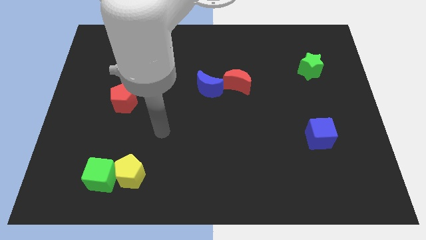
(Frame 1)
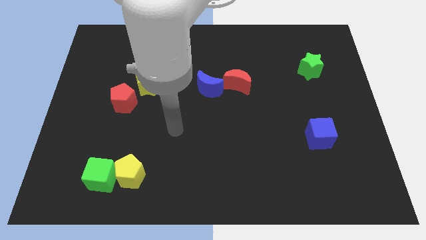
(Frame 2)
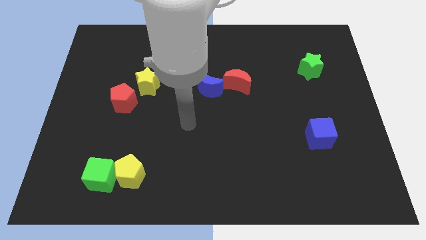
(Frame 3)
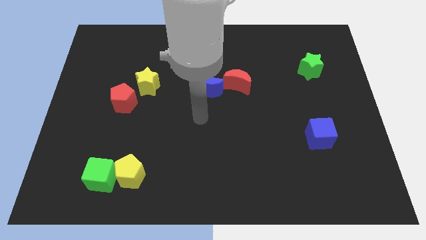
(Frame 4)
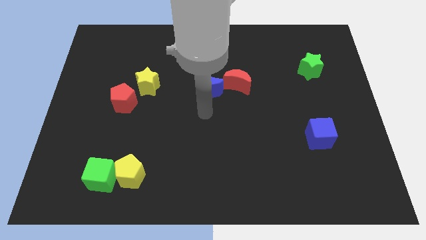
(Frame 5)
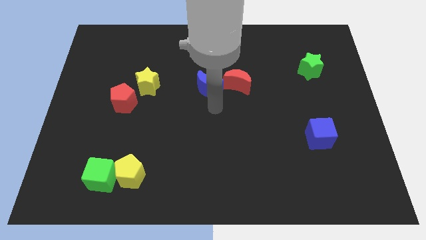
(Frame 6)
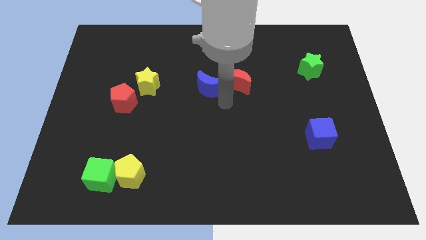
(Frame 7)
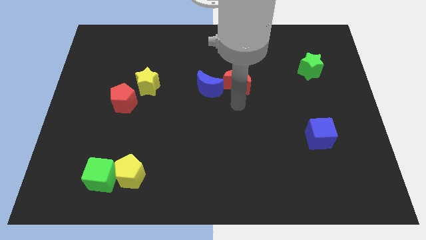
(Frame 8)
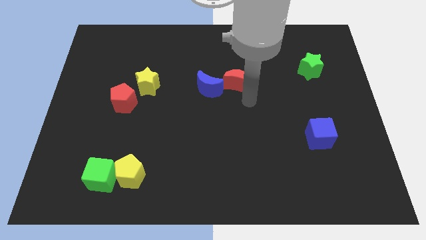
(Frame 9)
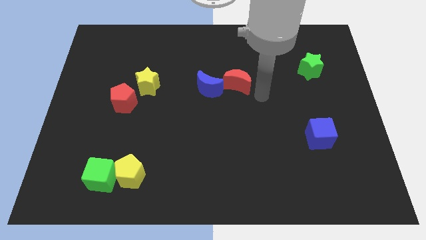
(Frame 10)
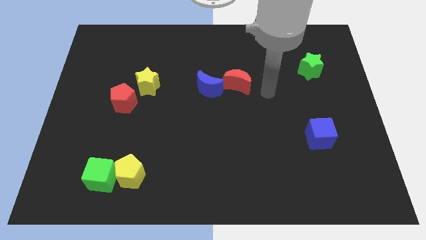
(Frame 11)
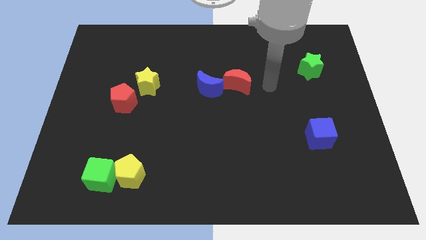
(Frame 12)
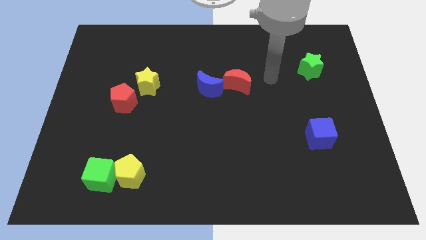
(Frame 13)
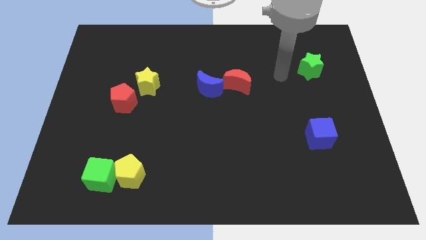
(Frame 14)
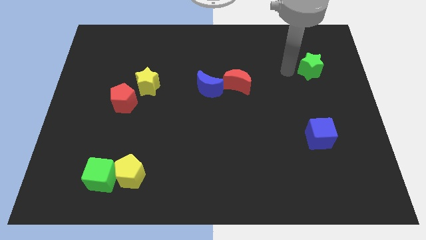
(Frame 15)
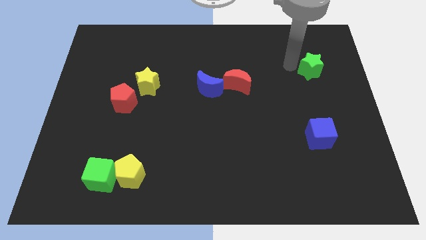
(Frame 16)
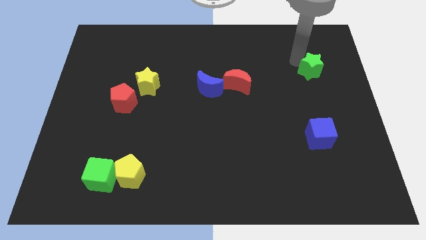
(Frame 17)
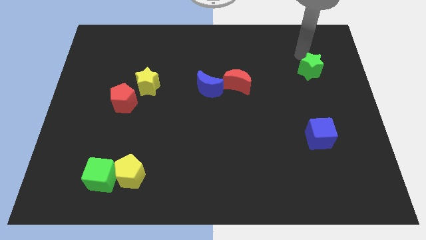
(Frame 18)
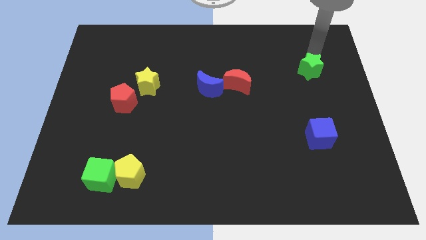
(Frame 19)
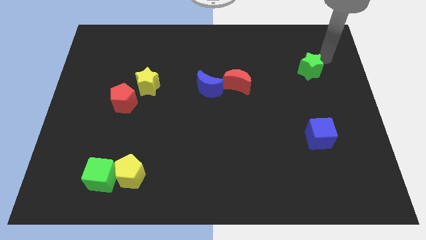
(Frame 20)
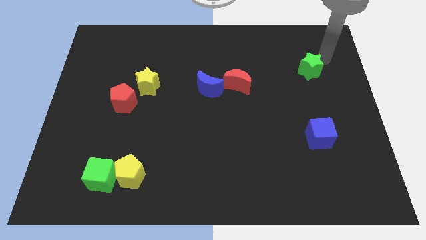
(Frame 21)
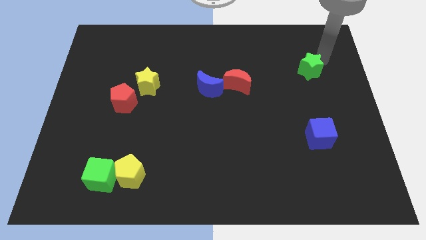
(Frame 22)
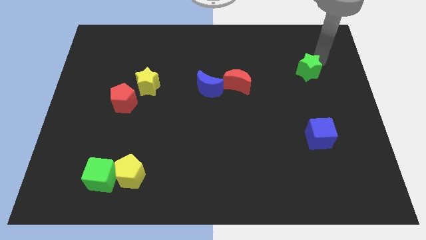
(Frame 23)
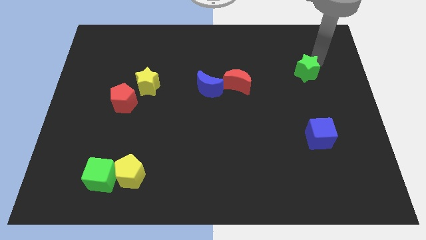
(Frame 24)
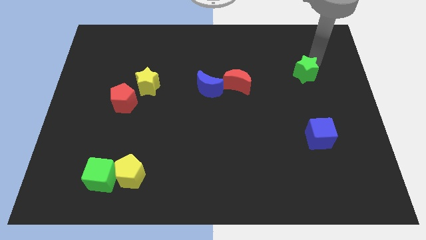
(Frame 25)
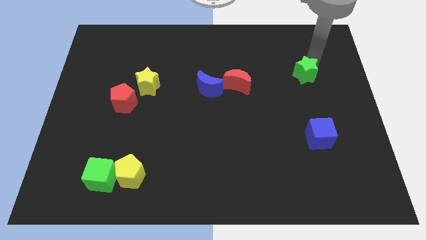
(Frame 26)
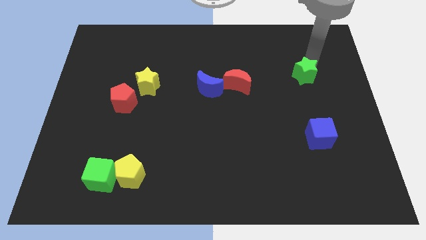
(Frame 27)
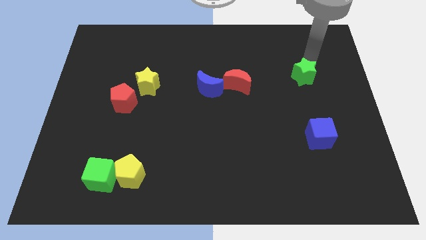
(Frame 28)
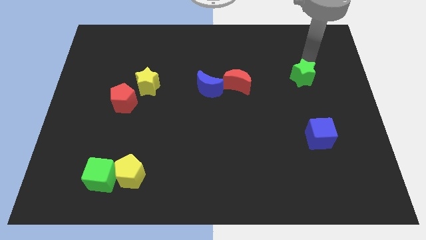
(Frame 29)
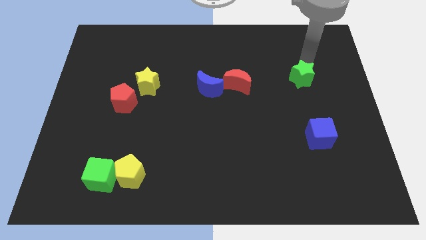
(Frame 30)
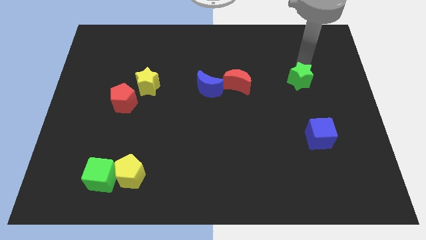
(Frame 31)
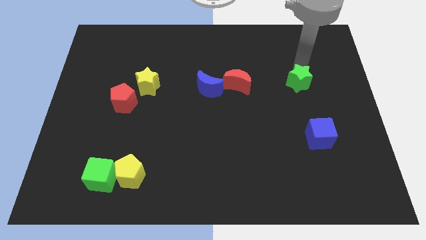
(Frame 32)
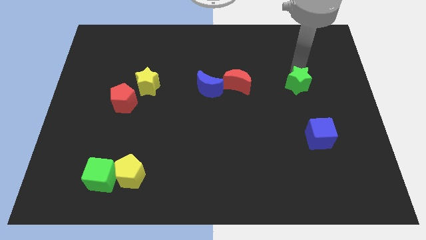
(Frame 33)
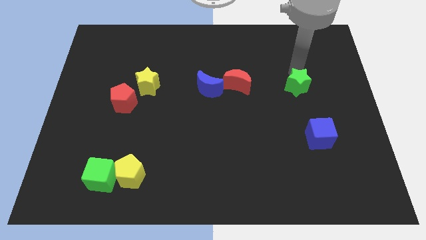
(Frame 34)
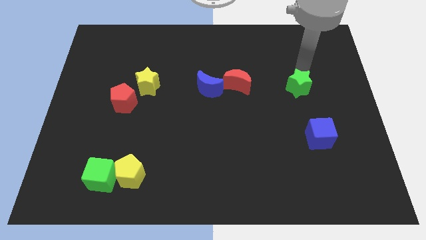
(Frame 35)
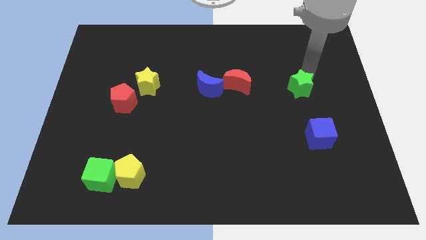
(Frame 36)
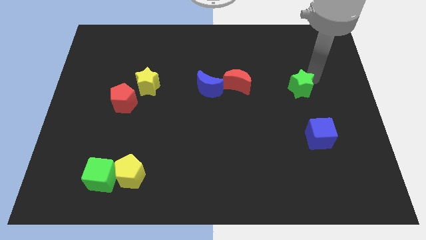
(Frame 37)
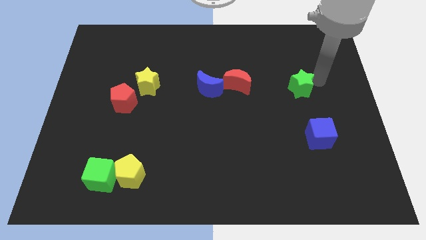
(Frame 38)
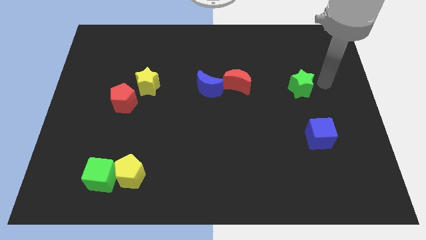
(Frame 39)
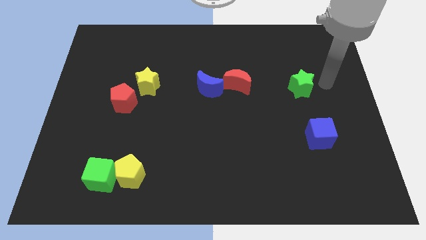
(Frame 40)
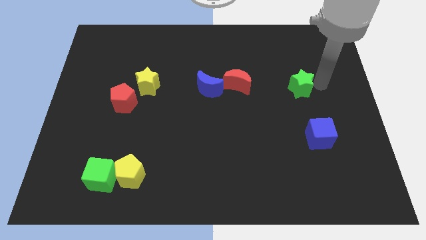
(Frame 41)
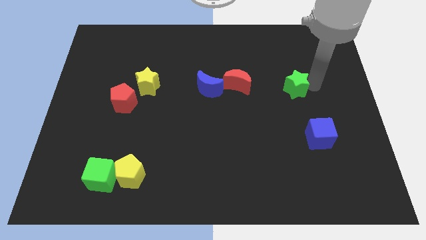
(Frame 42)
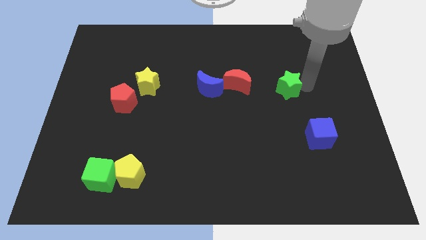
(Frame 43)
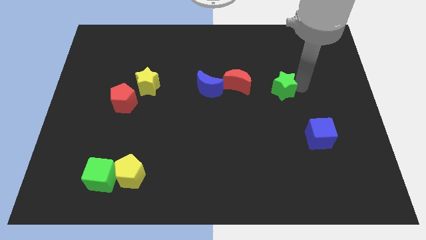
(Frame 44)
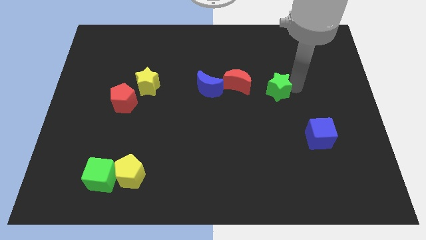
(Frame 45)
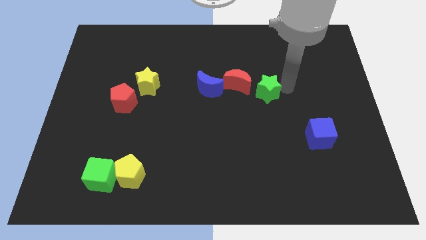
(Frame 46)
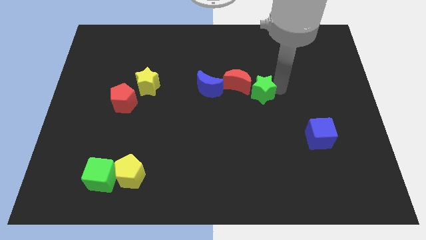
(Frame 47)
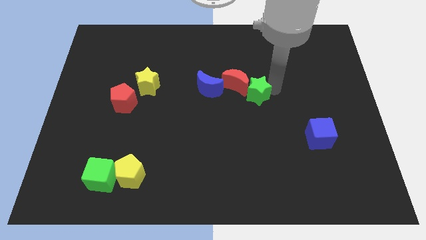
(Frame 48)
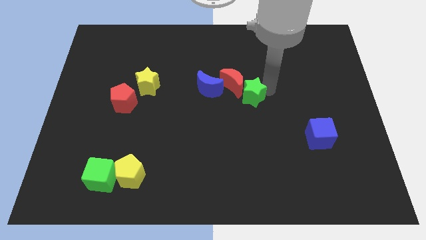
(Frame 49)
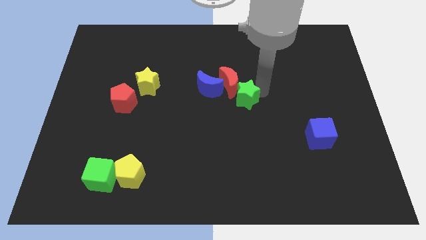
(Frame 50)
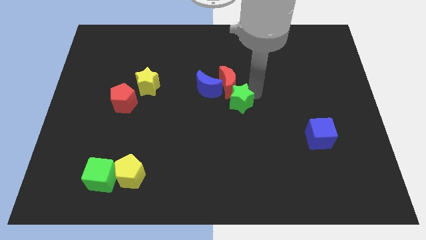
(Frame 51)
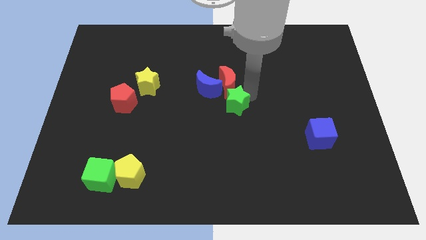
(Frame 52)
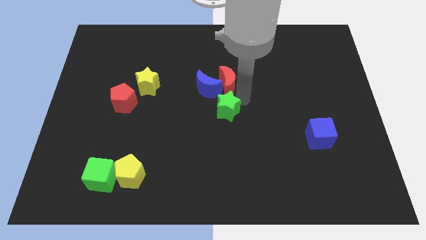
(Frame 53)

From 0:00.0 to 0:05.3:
move the green star to the bottom side of the blue moon

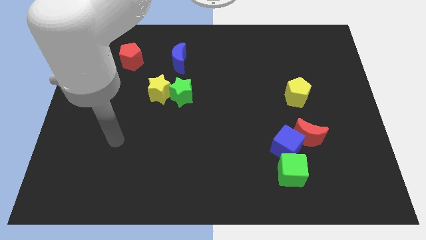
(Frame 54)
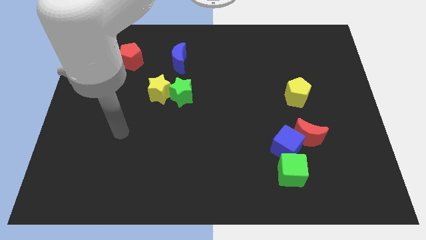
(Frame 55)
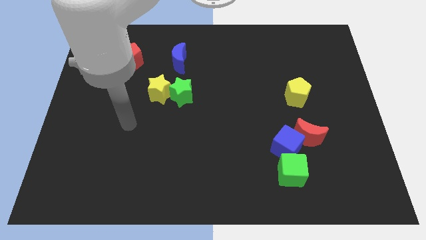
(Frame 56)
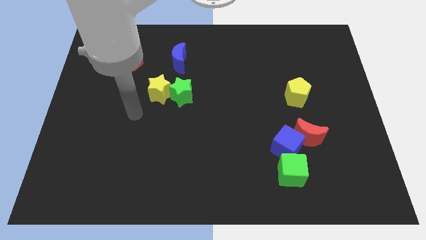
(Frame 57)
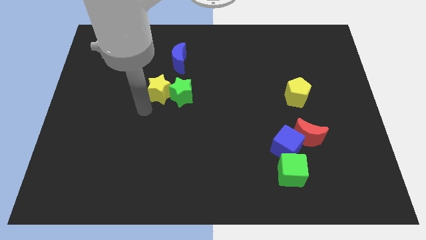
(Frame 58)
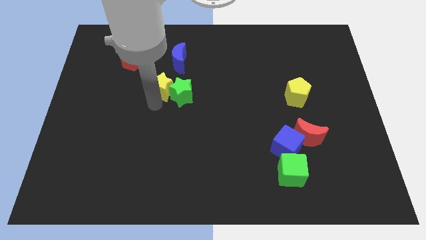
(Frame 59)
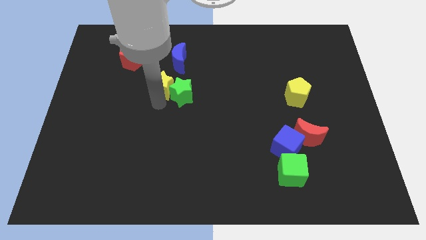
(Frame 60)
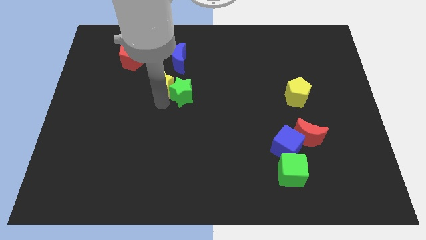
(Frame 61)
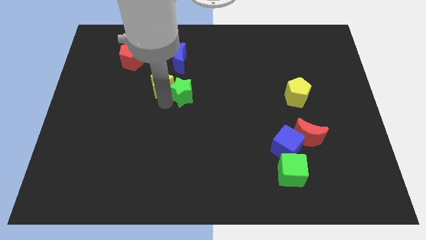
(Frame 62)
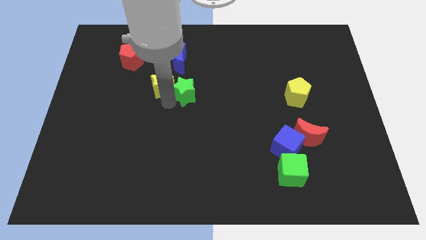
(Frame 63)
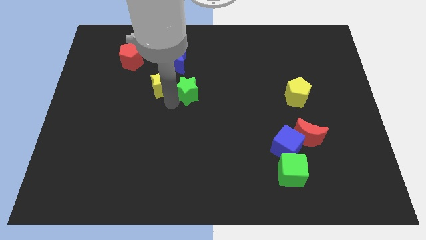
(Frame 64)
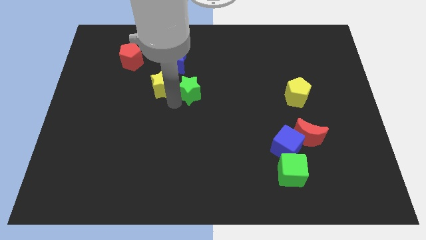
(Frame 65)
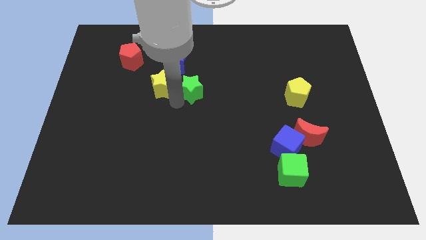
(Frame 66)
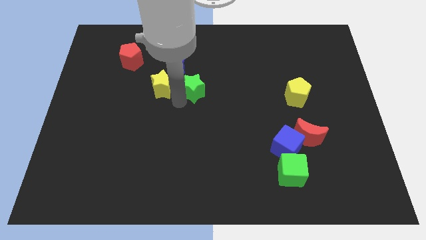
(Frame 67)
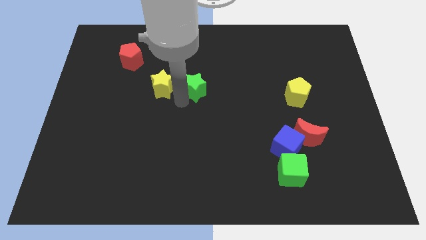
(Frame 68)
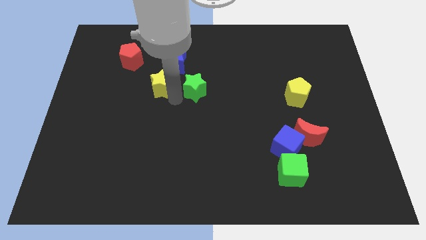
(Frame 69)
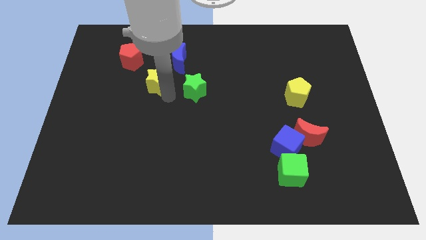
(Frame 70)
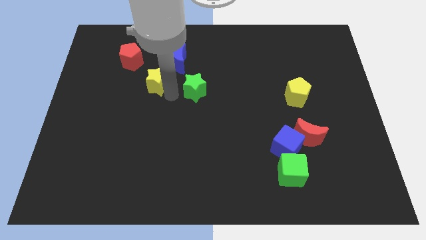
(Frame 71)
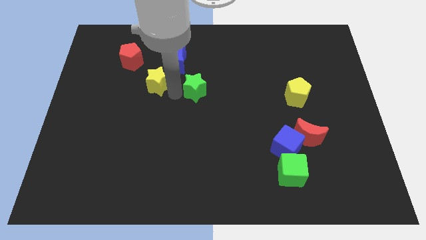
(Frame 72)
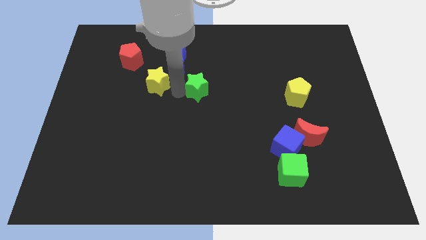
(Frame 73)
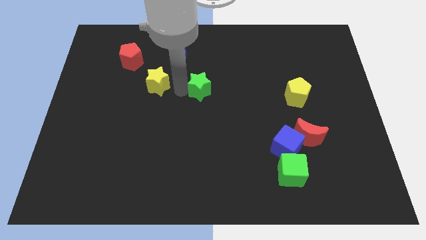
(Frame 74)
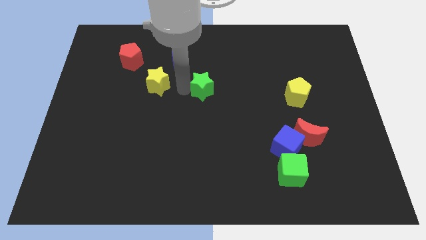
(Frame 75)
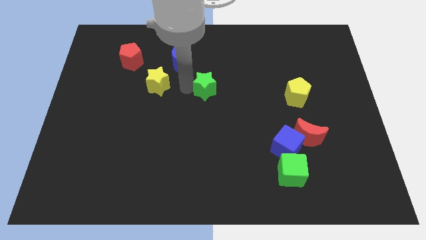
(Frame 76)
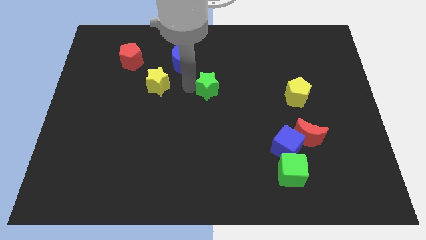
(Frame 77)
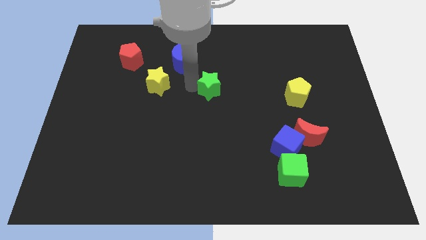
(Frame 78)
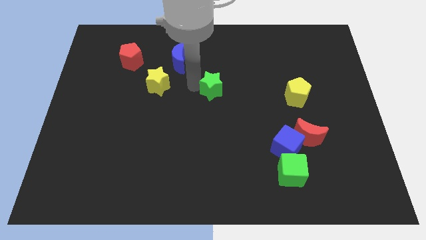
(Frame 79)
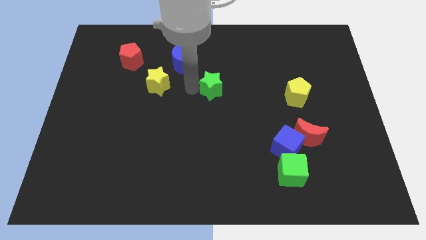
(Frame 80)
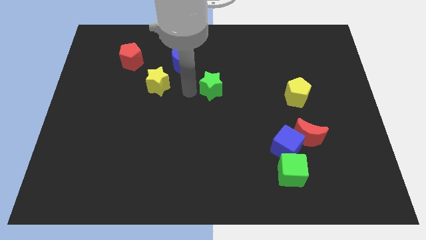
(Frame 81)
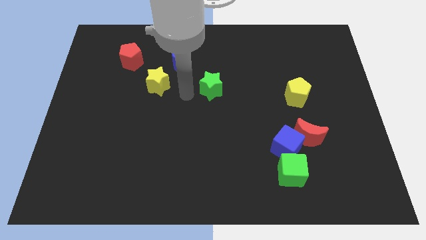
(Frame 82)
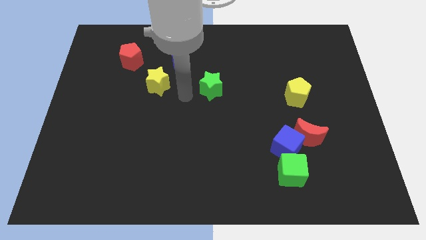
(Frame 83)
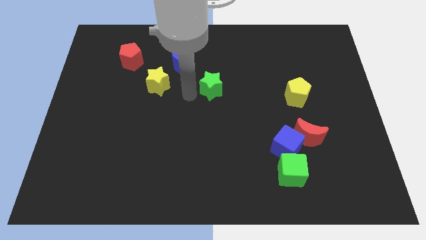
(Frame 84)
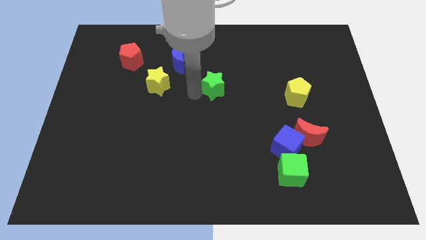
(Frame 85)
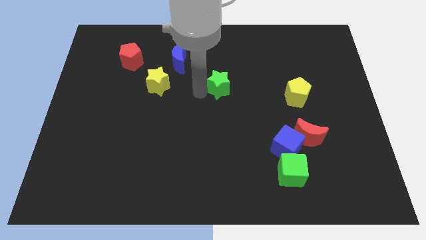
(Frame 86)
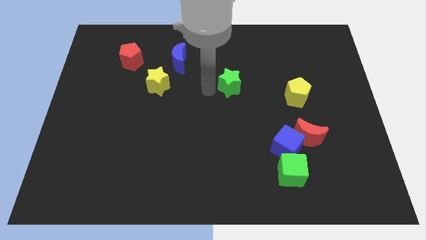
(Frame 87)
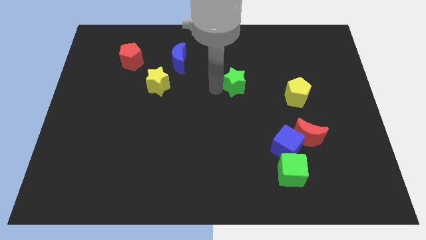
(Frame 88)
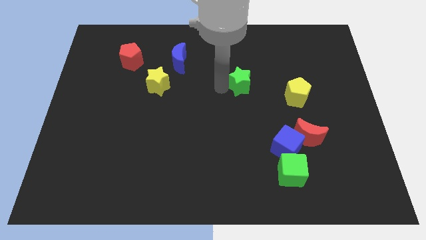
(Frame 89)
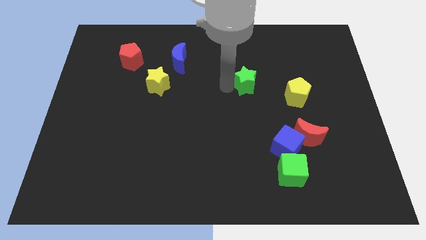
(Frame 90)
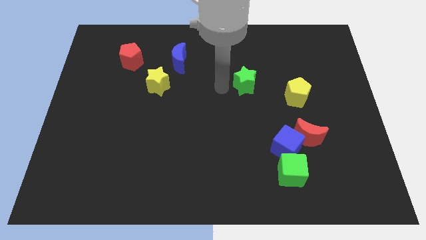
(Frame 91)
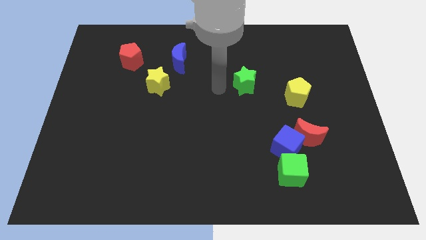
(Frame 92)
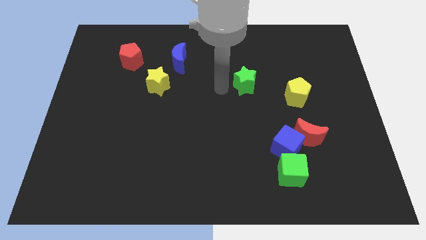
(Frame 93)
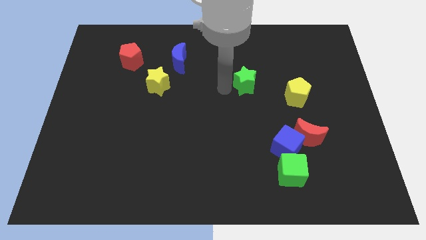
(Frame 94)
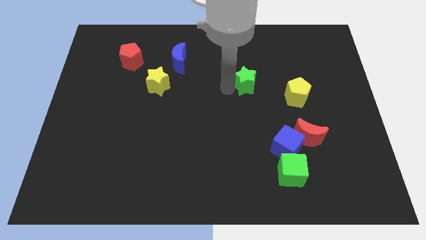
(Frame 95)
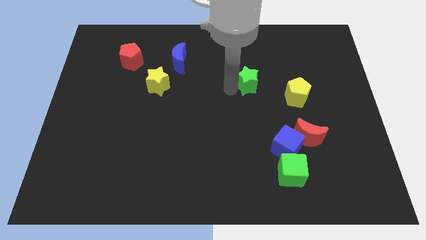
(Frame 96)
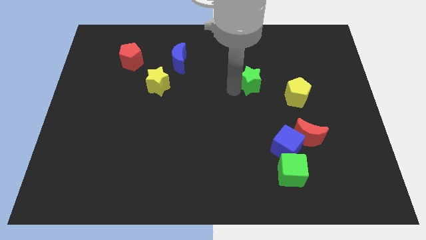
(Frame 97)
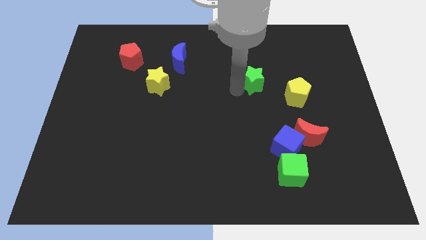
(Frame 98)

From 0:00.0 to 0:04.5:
move the green star to the top left side of the yellow pentagon
